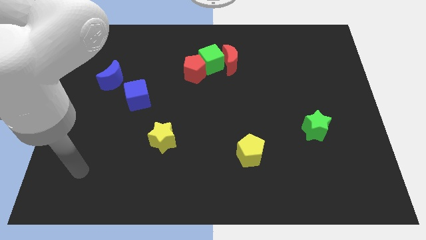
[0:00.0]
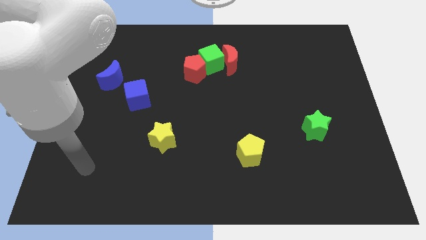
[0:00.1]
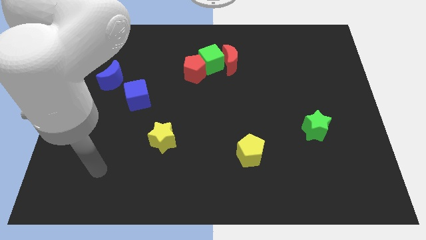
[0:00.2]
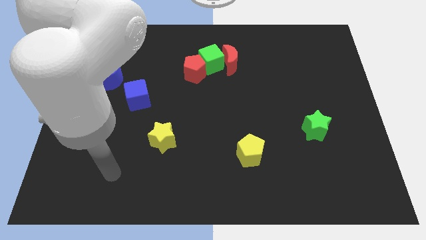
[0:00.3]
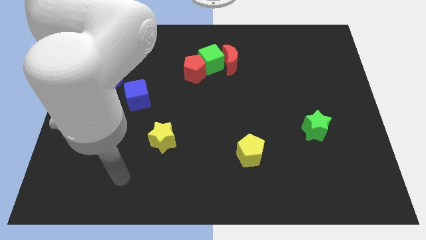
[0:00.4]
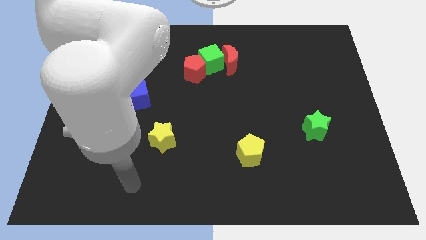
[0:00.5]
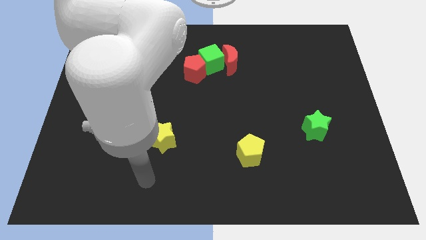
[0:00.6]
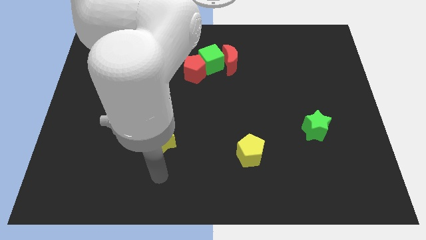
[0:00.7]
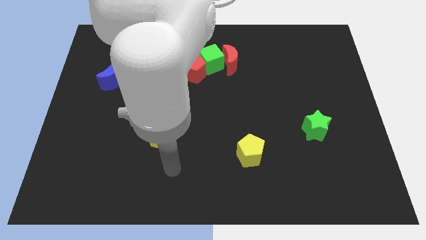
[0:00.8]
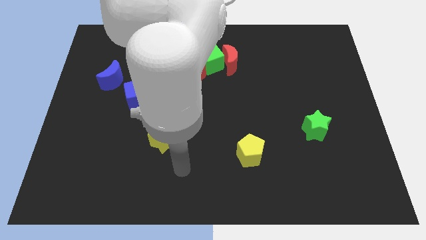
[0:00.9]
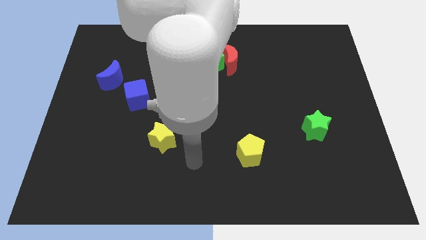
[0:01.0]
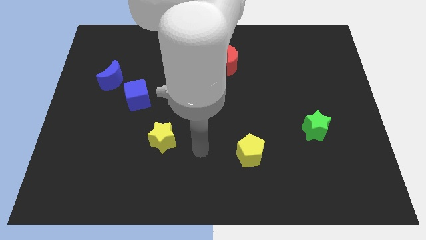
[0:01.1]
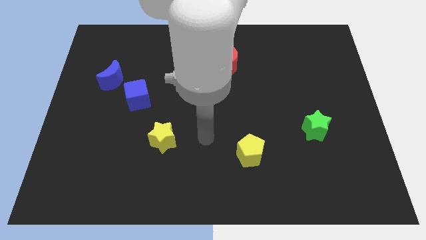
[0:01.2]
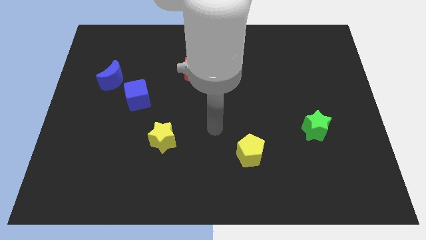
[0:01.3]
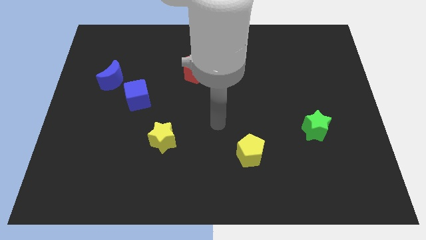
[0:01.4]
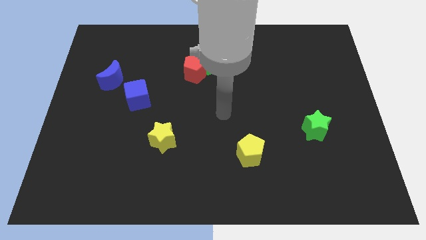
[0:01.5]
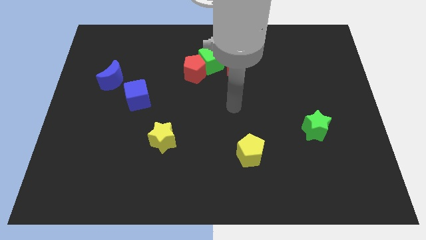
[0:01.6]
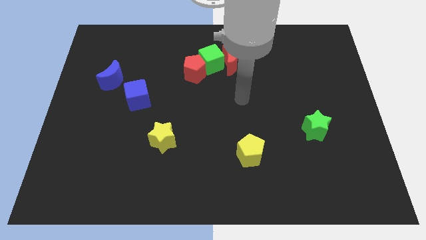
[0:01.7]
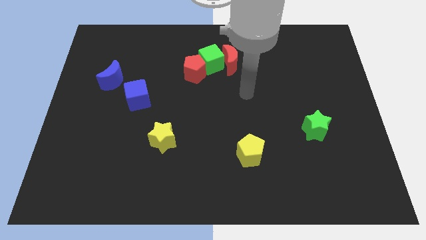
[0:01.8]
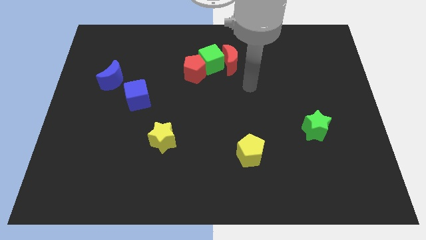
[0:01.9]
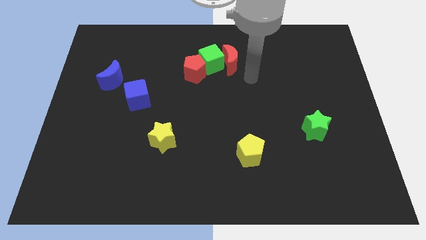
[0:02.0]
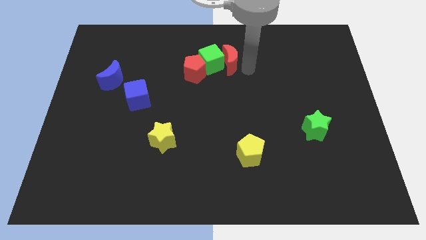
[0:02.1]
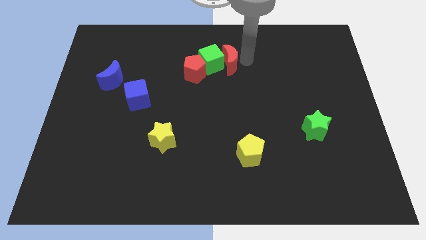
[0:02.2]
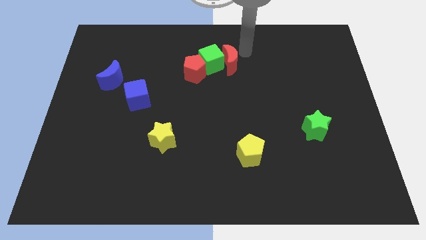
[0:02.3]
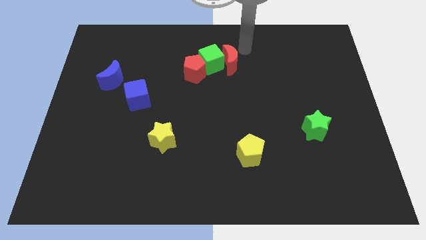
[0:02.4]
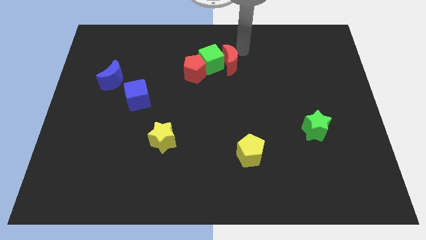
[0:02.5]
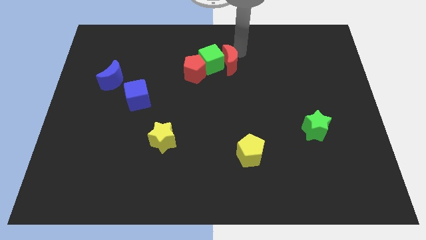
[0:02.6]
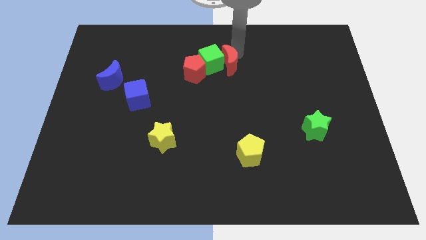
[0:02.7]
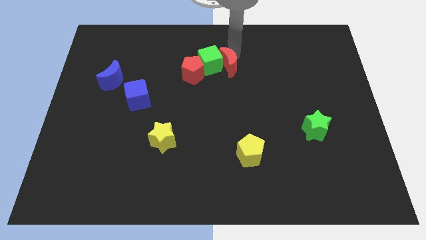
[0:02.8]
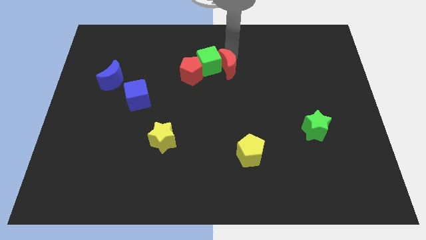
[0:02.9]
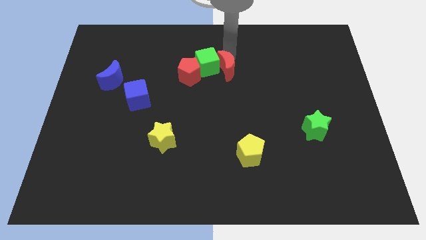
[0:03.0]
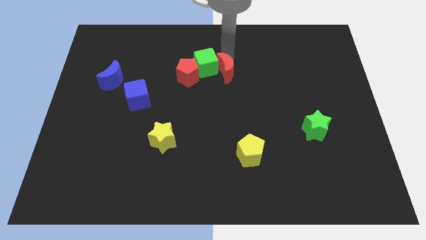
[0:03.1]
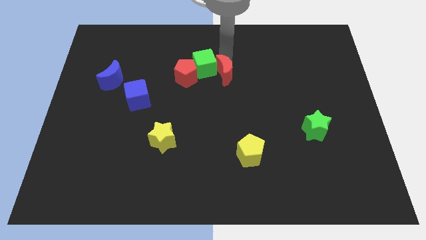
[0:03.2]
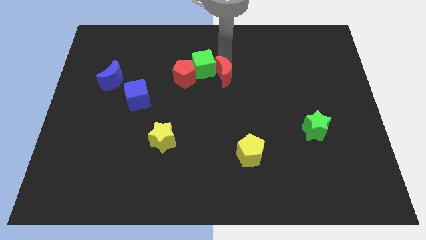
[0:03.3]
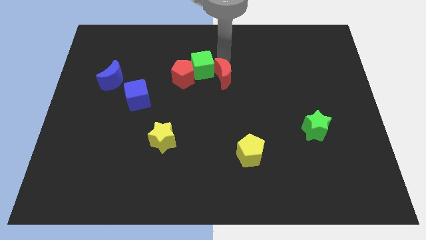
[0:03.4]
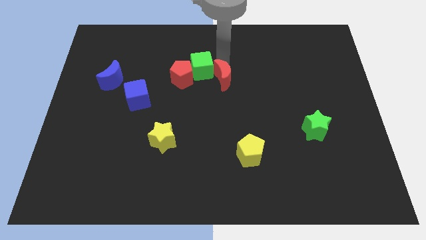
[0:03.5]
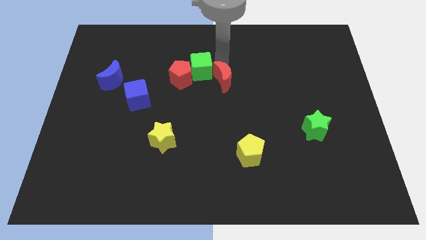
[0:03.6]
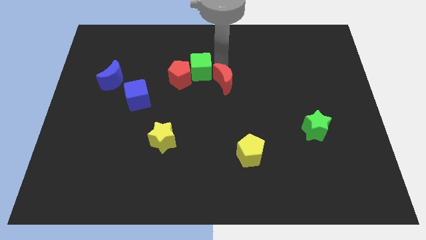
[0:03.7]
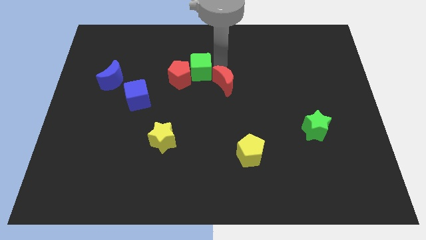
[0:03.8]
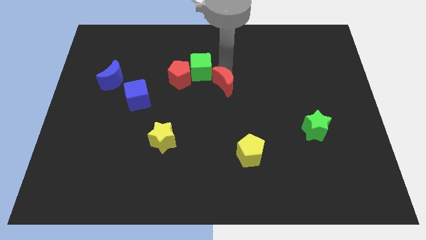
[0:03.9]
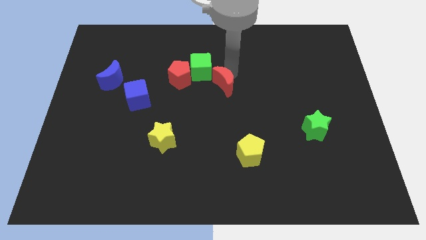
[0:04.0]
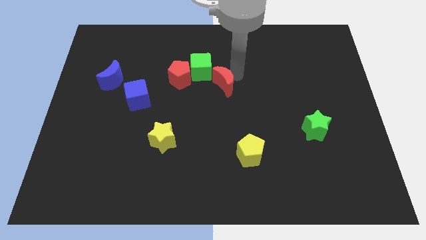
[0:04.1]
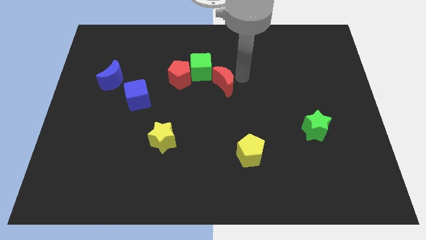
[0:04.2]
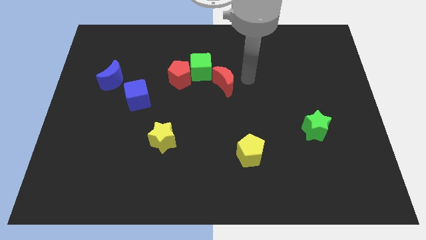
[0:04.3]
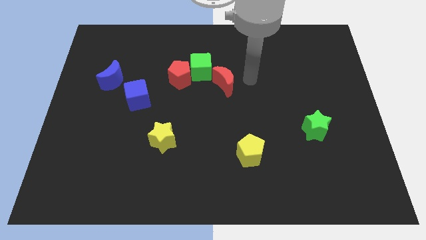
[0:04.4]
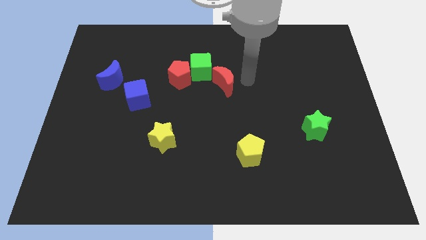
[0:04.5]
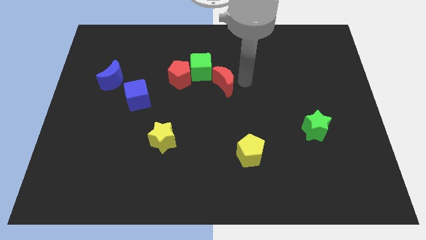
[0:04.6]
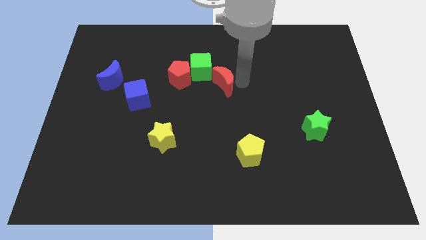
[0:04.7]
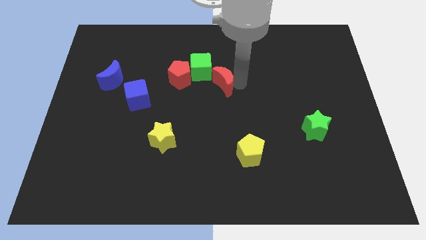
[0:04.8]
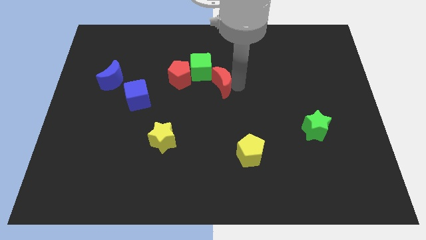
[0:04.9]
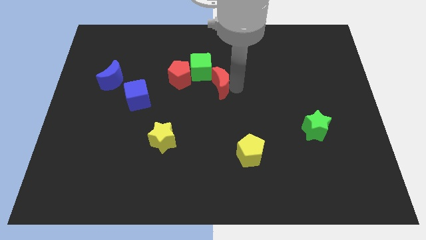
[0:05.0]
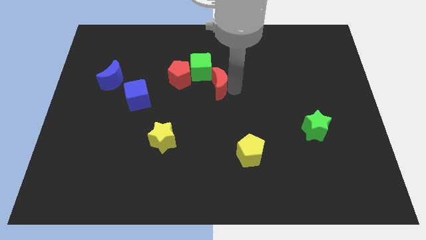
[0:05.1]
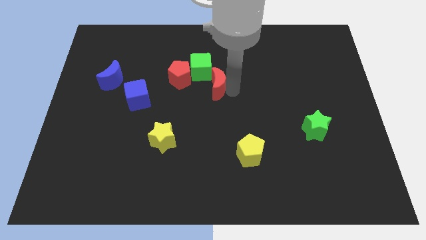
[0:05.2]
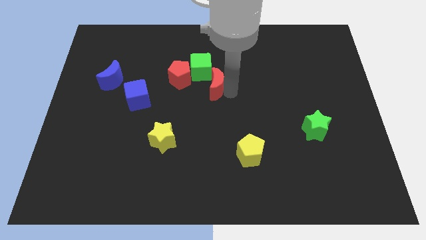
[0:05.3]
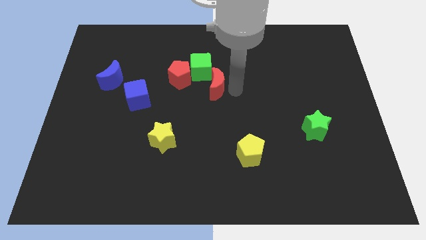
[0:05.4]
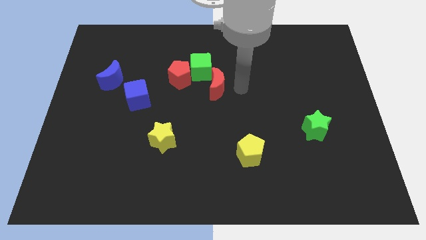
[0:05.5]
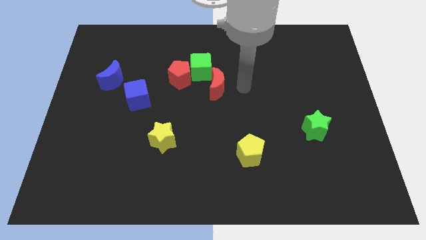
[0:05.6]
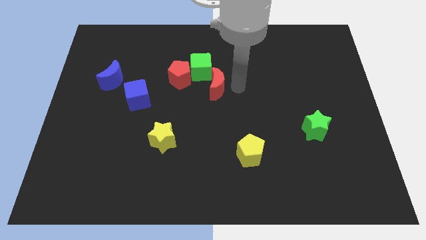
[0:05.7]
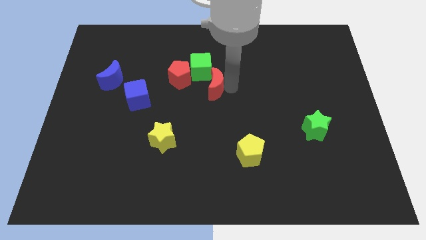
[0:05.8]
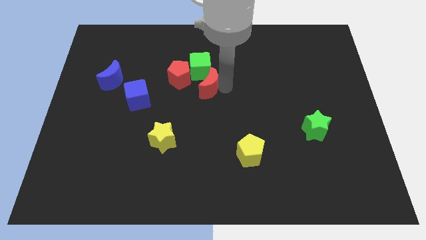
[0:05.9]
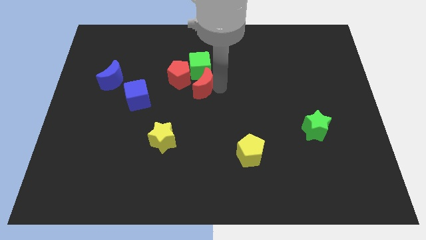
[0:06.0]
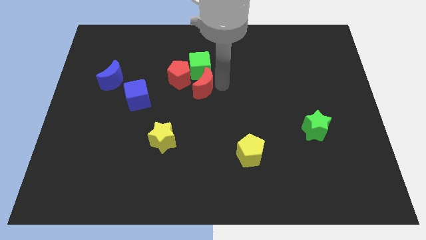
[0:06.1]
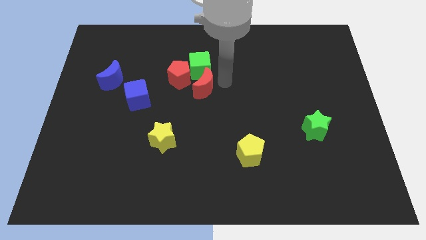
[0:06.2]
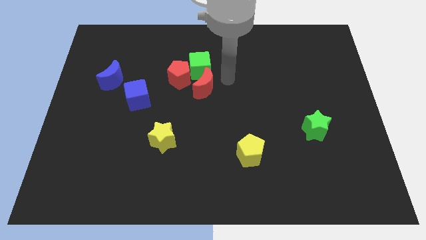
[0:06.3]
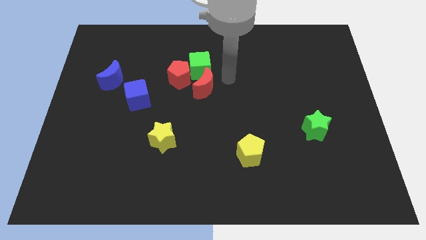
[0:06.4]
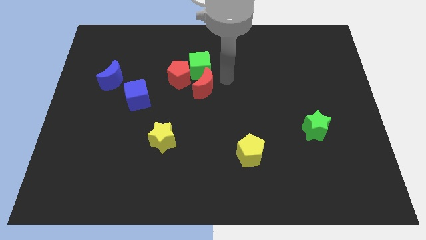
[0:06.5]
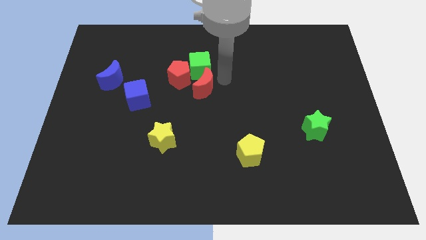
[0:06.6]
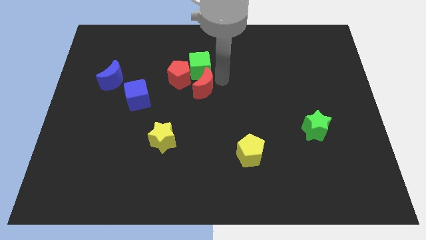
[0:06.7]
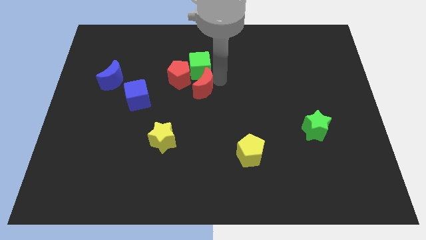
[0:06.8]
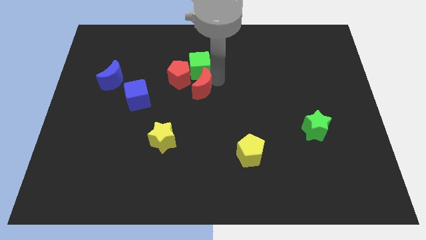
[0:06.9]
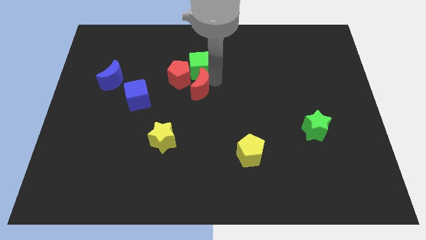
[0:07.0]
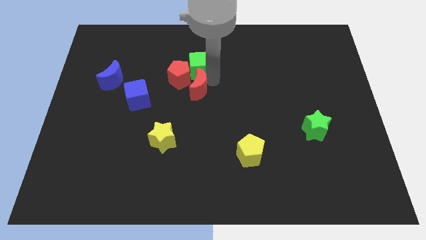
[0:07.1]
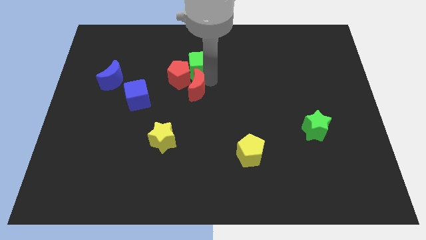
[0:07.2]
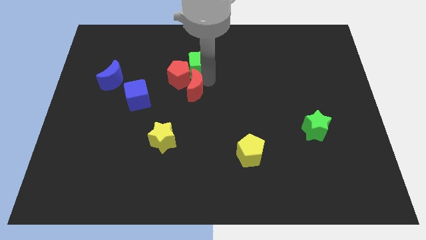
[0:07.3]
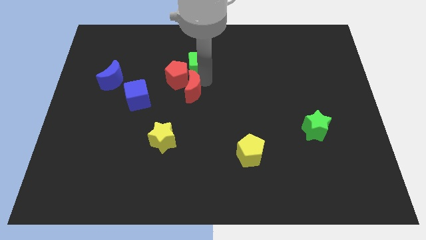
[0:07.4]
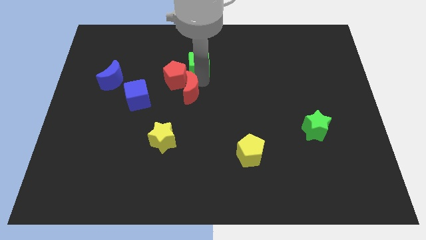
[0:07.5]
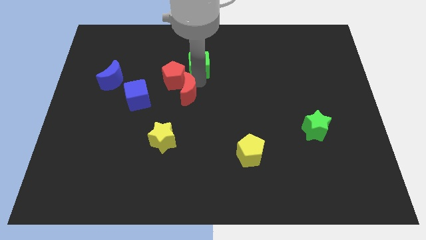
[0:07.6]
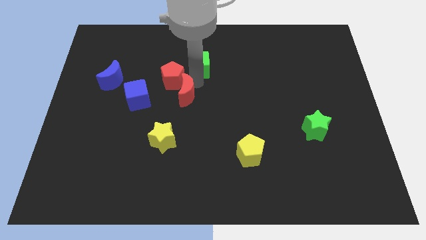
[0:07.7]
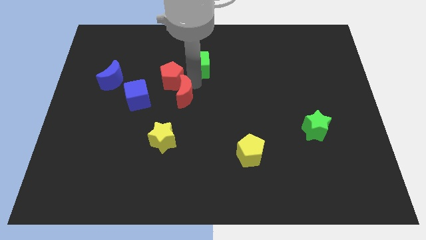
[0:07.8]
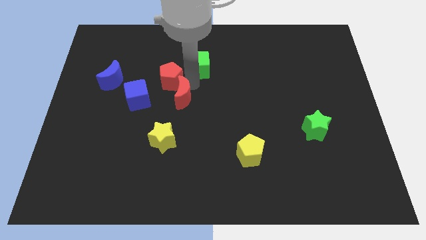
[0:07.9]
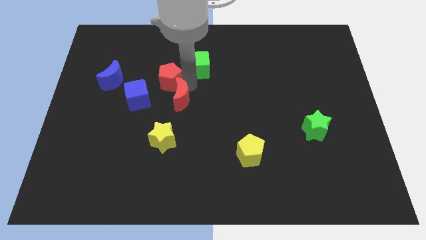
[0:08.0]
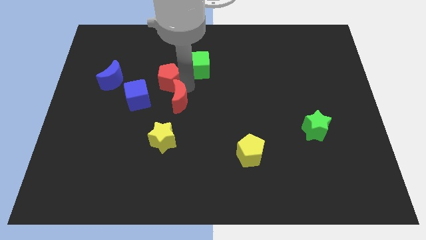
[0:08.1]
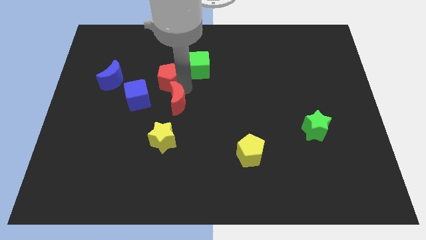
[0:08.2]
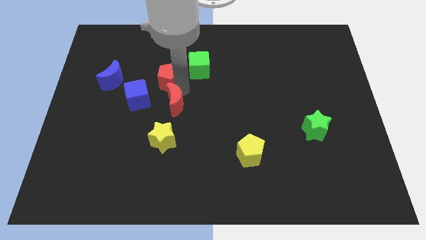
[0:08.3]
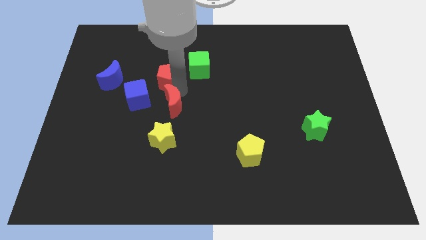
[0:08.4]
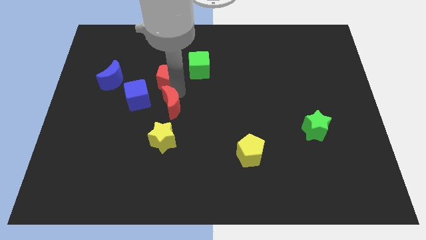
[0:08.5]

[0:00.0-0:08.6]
slide the red moon diagonally down and left
